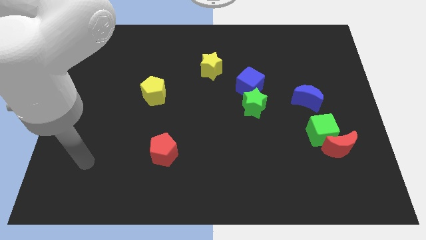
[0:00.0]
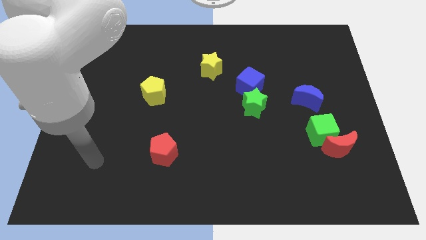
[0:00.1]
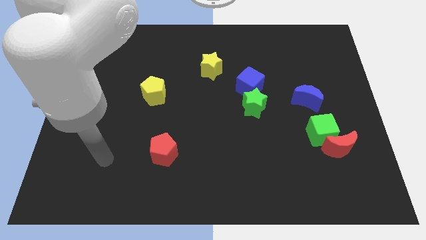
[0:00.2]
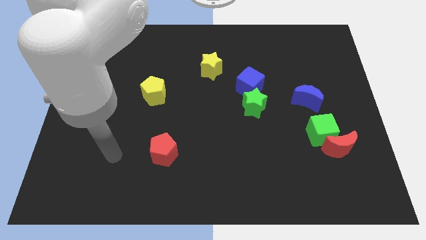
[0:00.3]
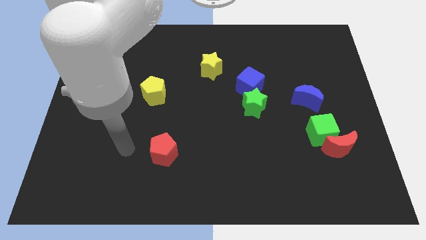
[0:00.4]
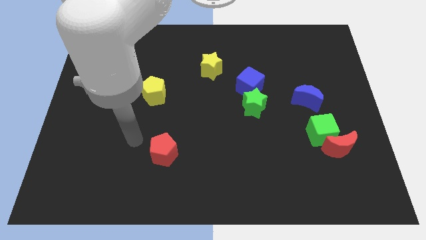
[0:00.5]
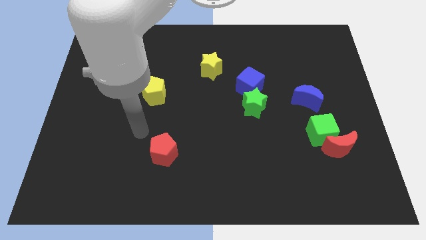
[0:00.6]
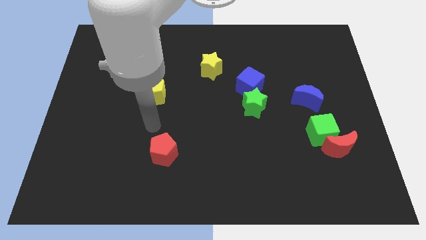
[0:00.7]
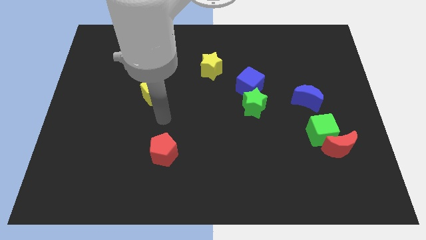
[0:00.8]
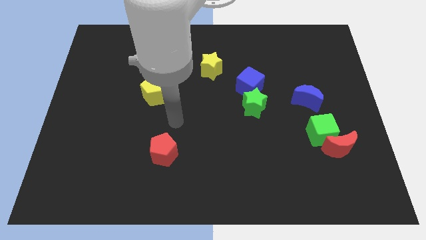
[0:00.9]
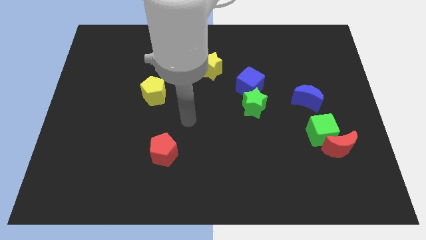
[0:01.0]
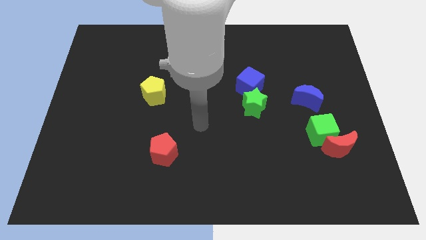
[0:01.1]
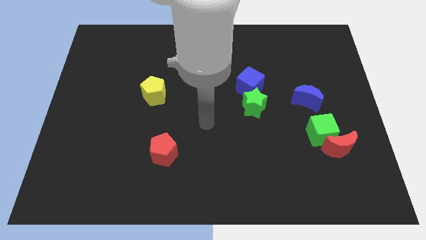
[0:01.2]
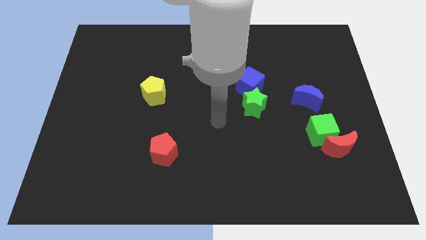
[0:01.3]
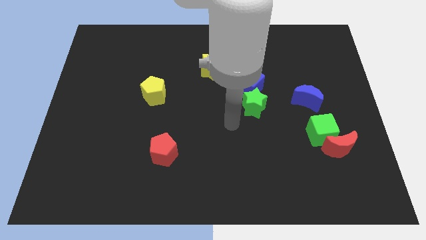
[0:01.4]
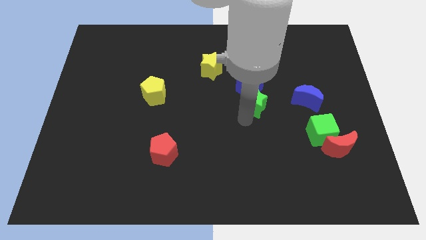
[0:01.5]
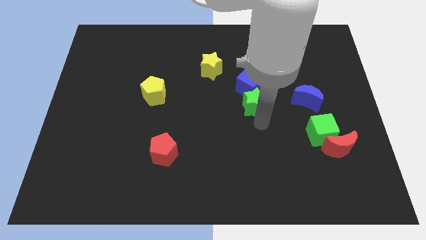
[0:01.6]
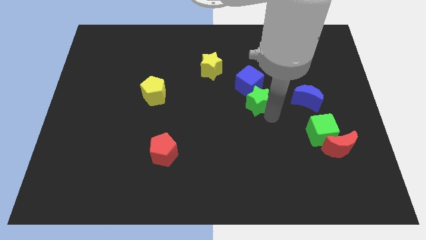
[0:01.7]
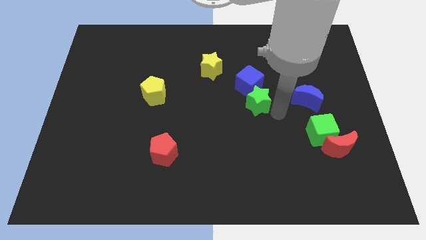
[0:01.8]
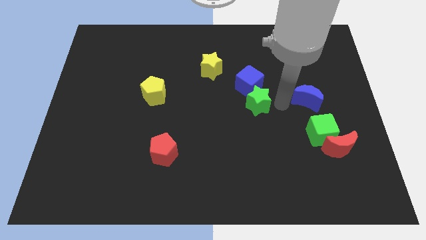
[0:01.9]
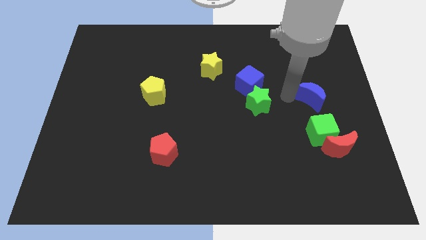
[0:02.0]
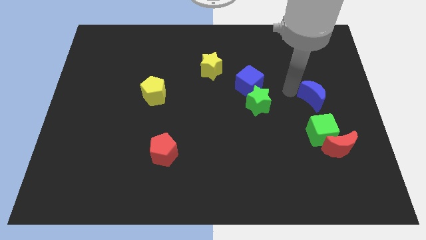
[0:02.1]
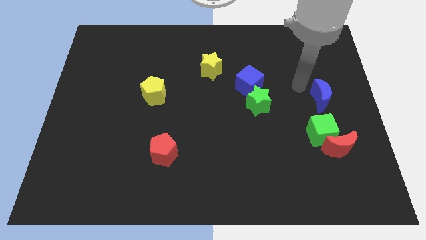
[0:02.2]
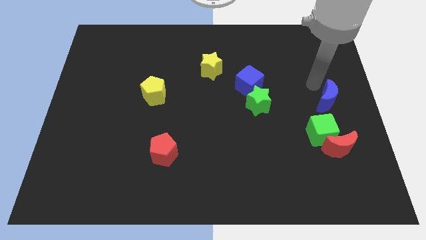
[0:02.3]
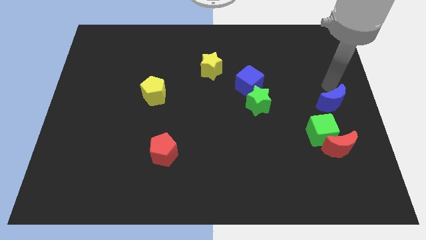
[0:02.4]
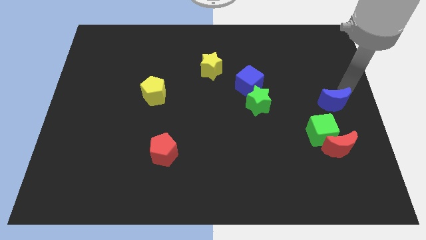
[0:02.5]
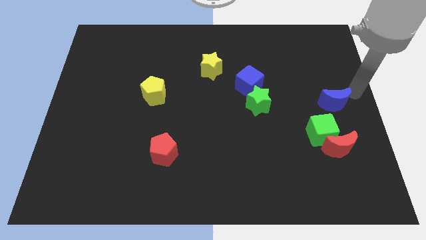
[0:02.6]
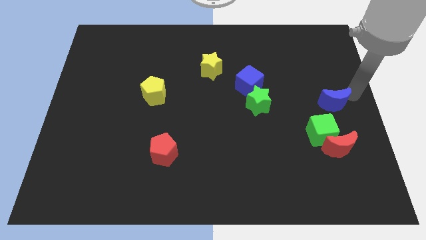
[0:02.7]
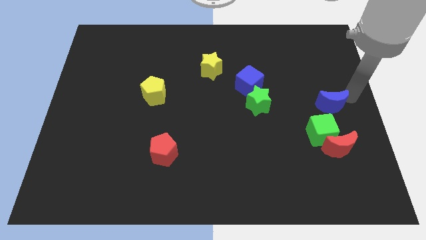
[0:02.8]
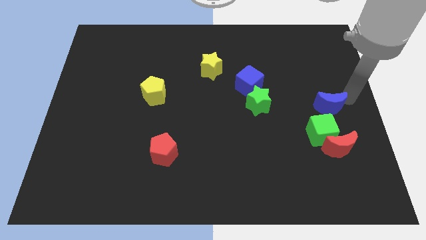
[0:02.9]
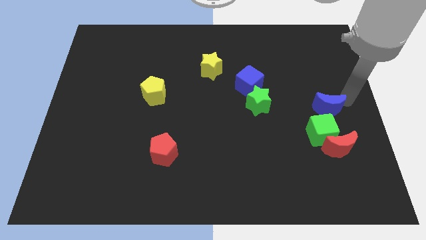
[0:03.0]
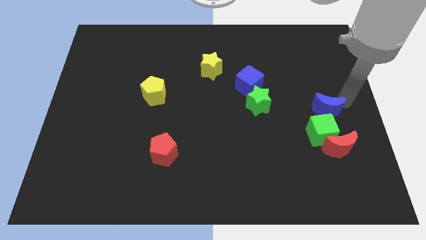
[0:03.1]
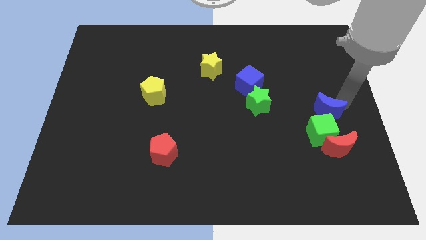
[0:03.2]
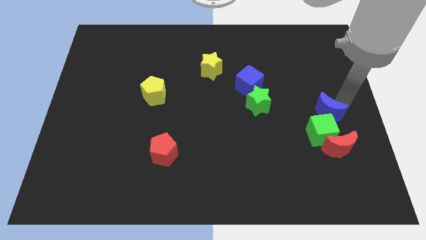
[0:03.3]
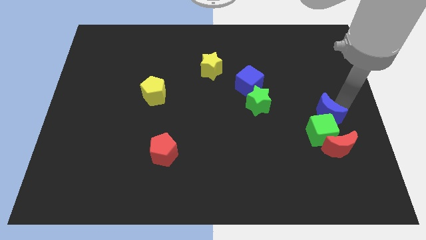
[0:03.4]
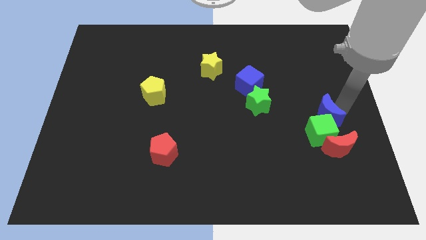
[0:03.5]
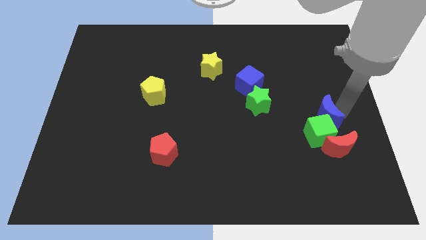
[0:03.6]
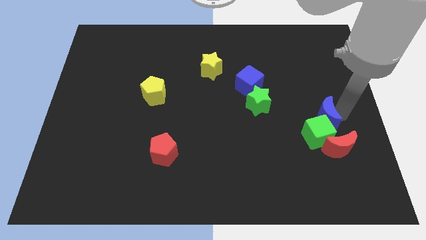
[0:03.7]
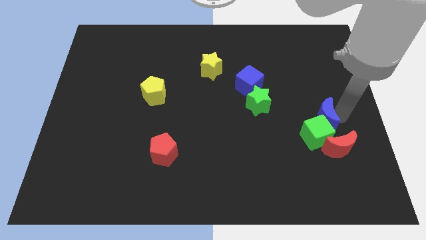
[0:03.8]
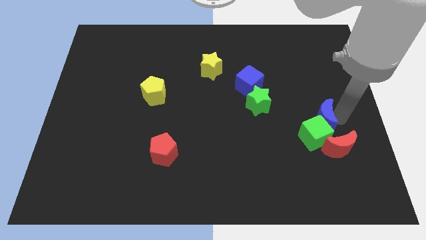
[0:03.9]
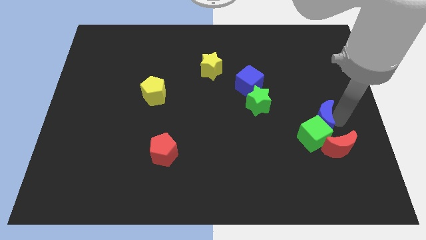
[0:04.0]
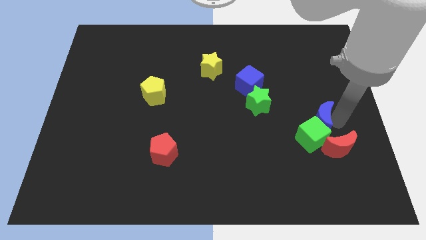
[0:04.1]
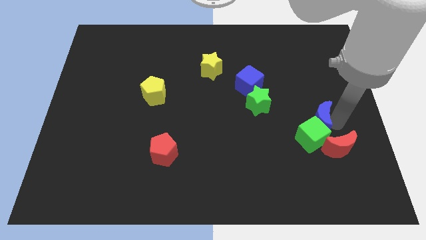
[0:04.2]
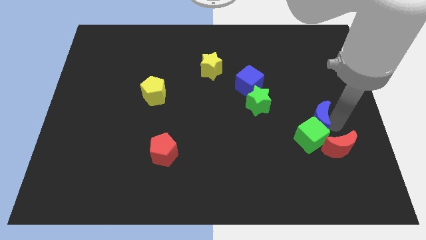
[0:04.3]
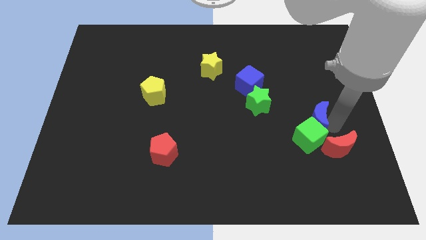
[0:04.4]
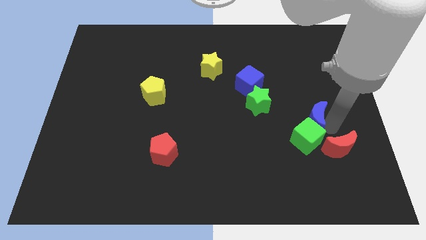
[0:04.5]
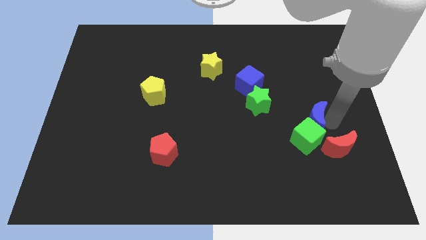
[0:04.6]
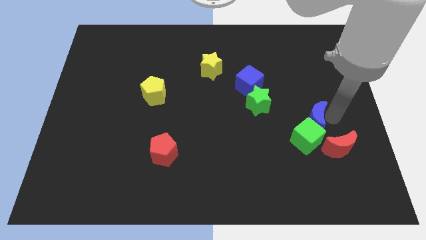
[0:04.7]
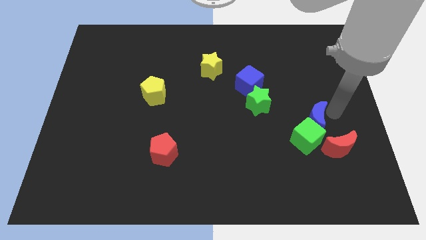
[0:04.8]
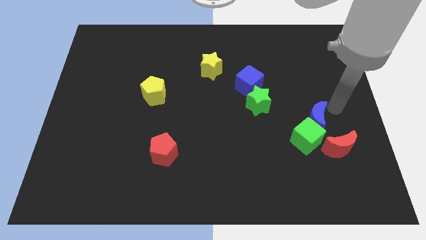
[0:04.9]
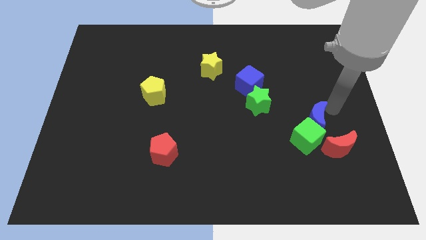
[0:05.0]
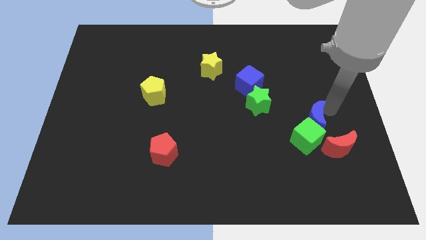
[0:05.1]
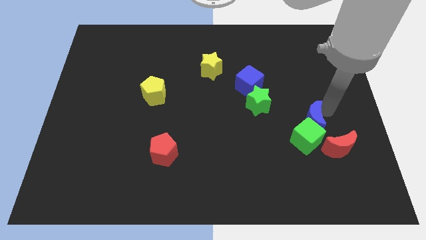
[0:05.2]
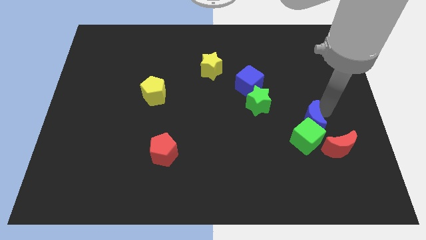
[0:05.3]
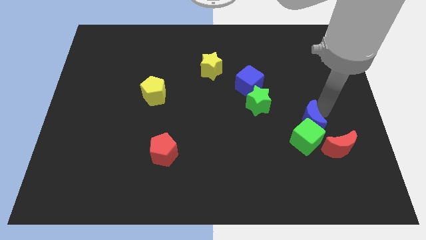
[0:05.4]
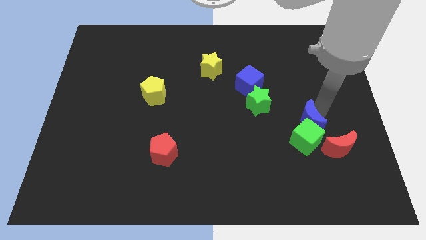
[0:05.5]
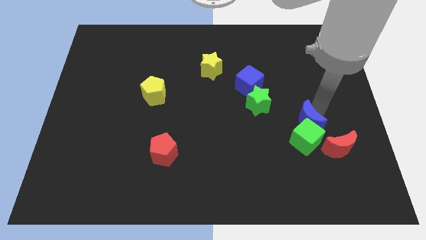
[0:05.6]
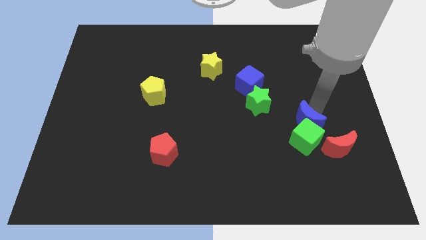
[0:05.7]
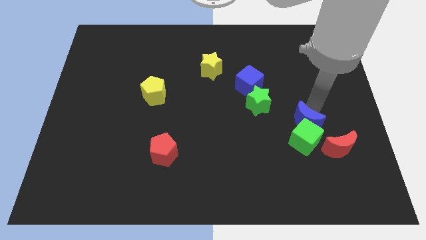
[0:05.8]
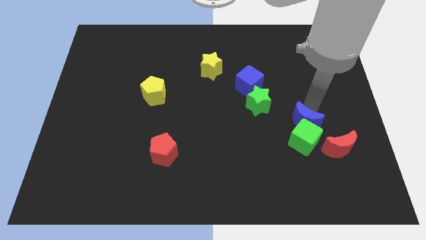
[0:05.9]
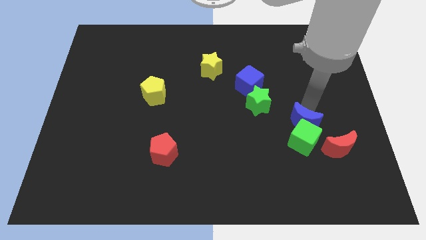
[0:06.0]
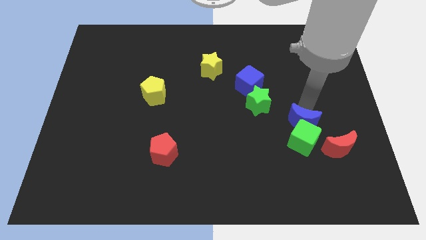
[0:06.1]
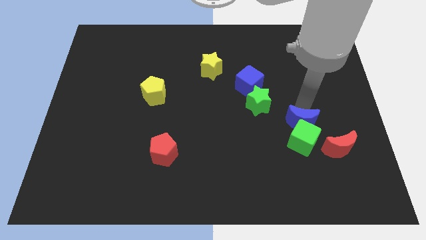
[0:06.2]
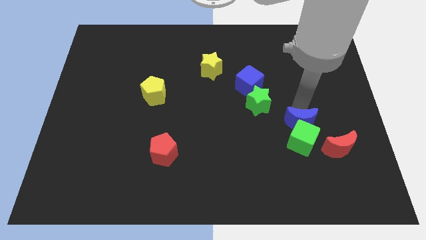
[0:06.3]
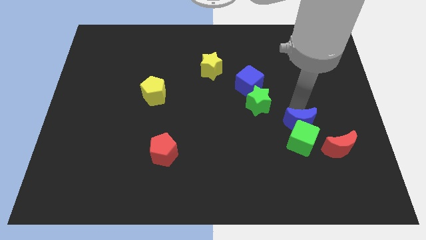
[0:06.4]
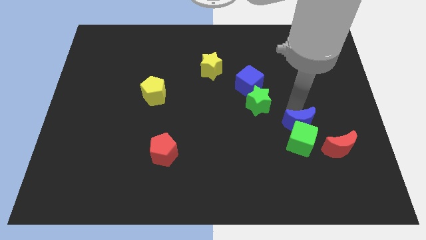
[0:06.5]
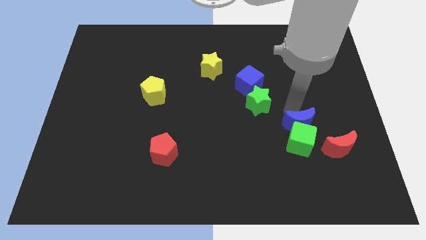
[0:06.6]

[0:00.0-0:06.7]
move the blue moon a bit down

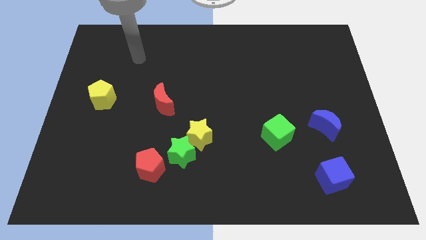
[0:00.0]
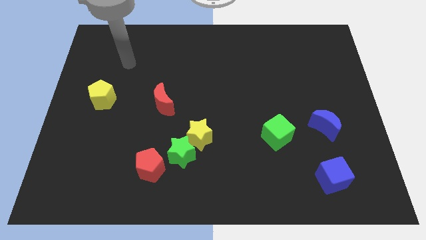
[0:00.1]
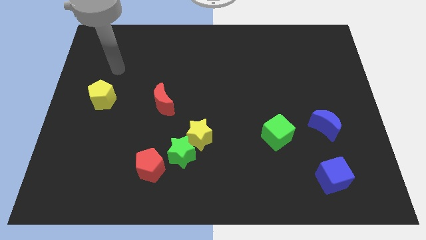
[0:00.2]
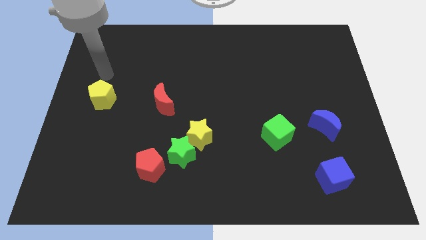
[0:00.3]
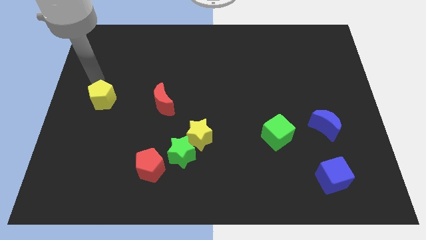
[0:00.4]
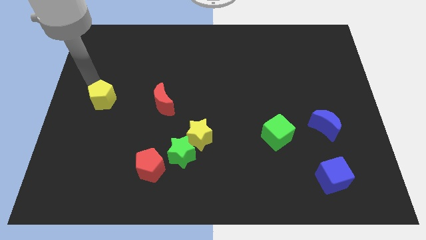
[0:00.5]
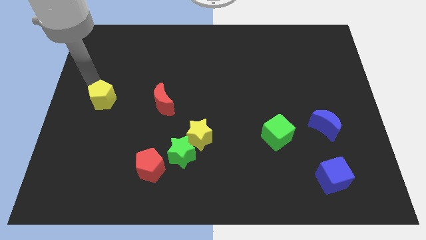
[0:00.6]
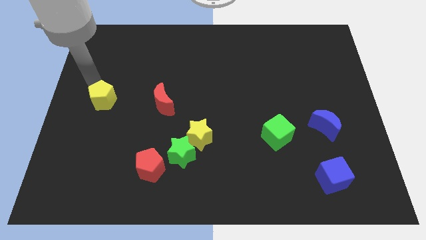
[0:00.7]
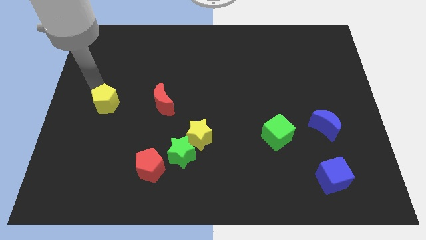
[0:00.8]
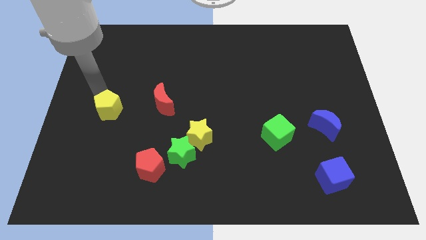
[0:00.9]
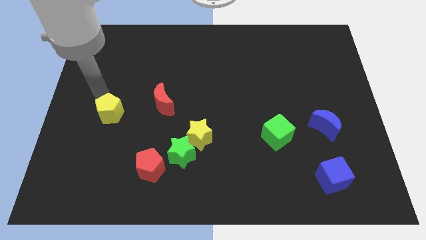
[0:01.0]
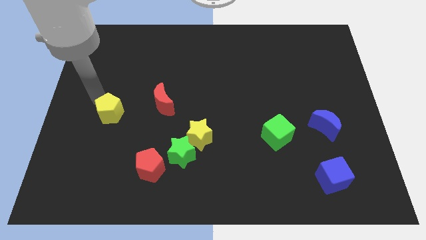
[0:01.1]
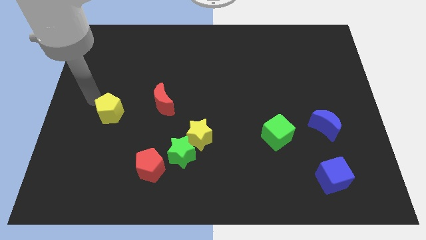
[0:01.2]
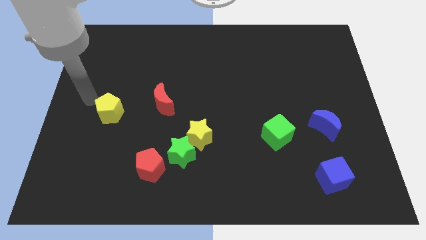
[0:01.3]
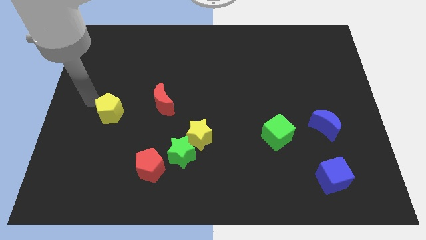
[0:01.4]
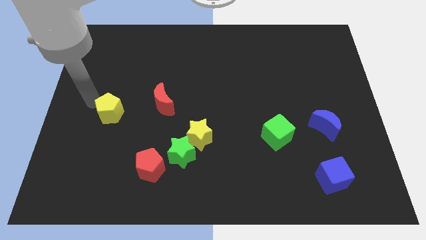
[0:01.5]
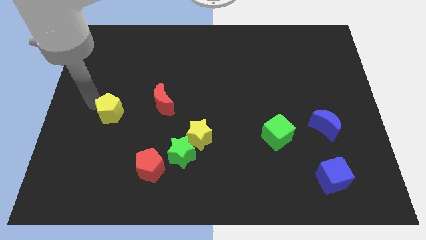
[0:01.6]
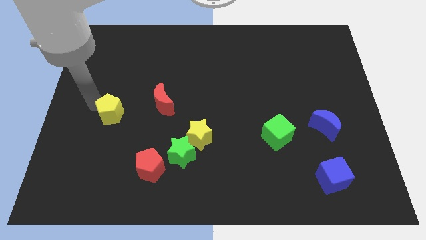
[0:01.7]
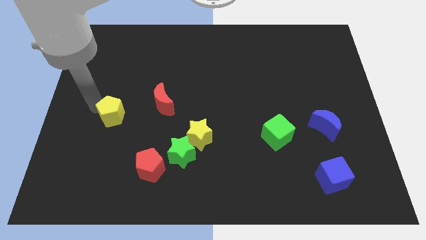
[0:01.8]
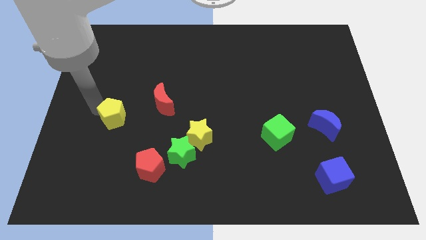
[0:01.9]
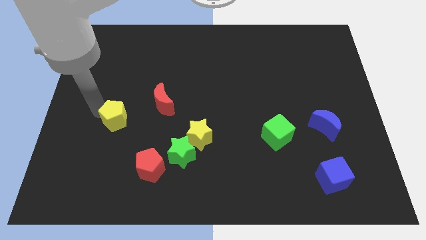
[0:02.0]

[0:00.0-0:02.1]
slide the yellow pentagon somewhat downwards and to the right
